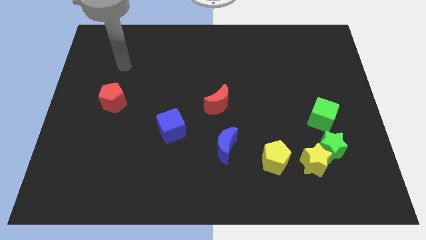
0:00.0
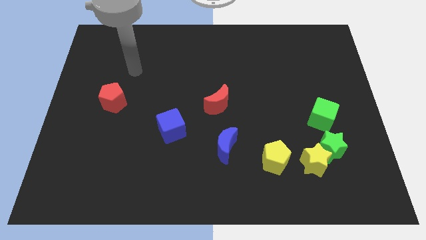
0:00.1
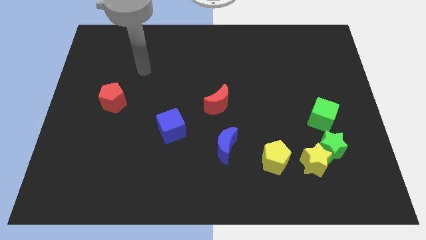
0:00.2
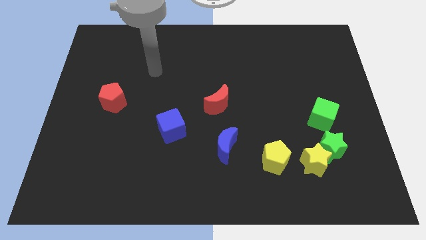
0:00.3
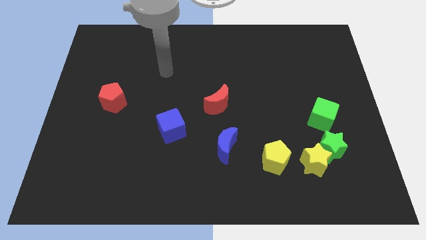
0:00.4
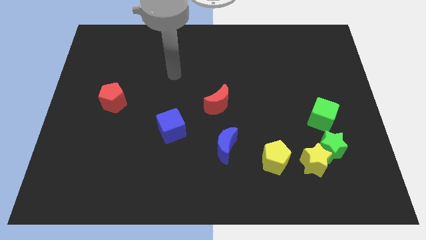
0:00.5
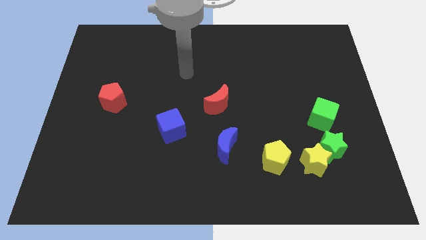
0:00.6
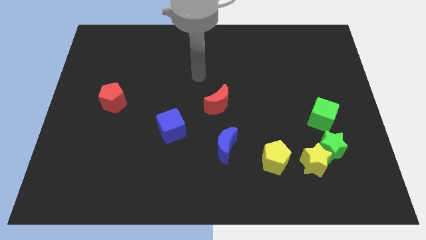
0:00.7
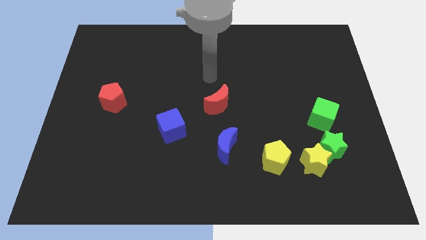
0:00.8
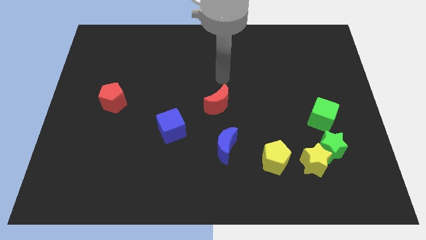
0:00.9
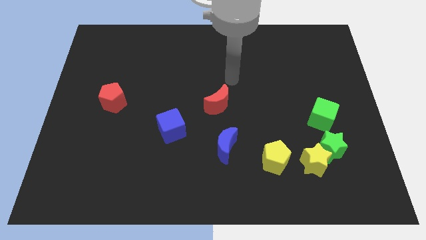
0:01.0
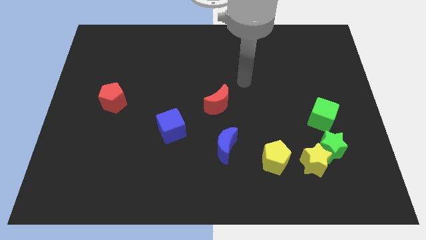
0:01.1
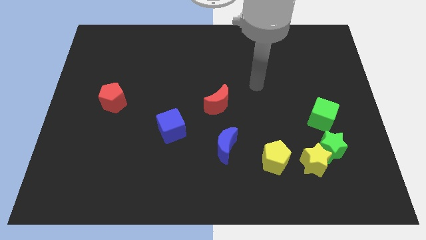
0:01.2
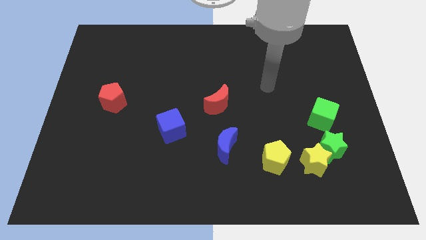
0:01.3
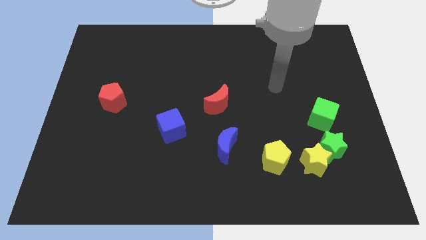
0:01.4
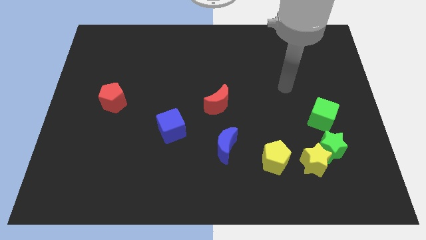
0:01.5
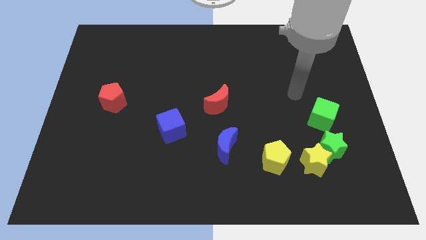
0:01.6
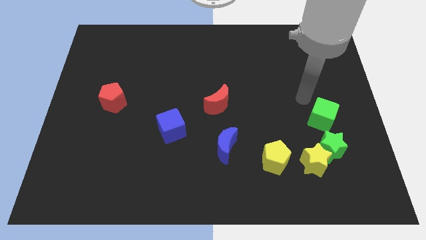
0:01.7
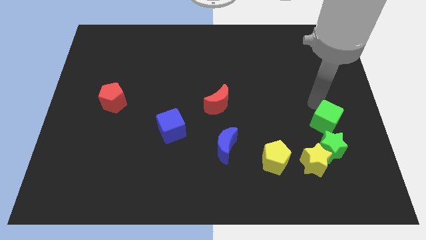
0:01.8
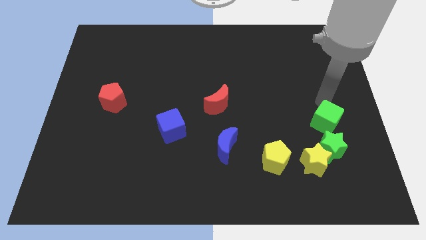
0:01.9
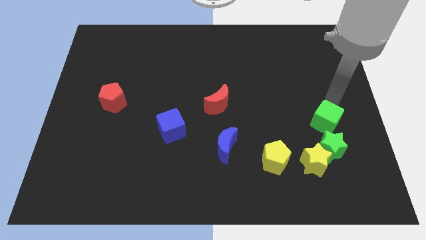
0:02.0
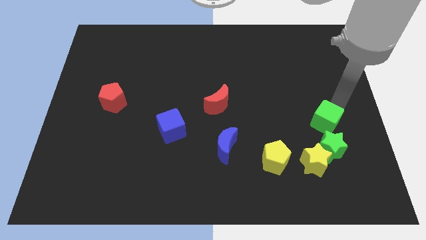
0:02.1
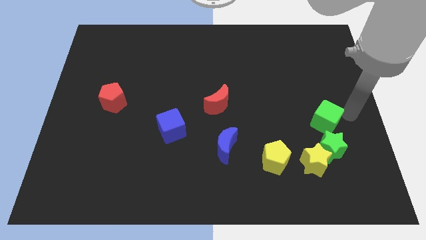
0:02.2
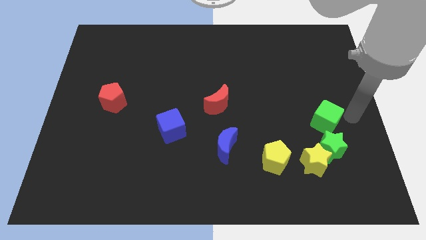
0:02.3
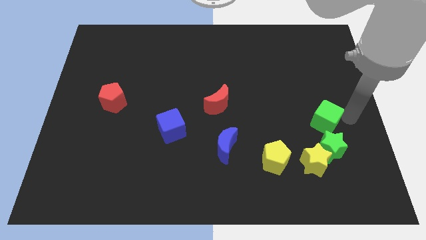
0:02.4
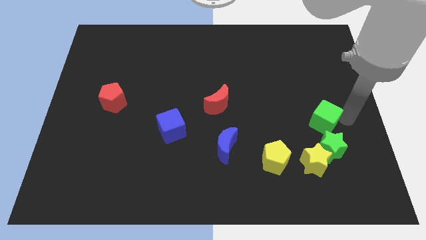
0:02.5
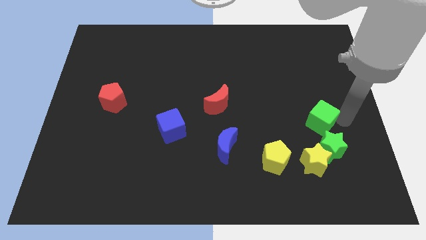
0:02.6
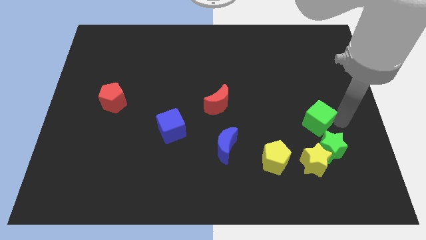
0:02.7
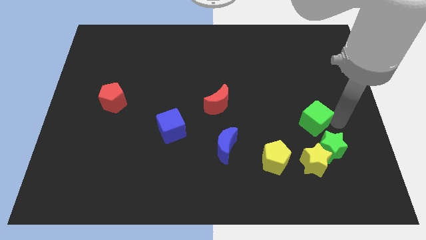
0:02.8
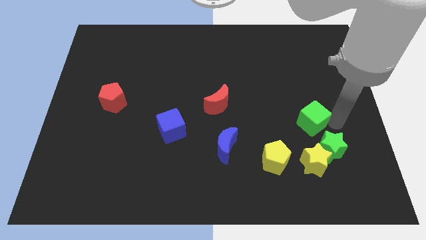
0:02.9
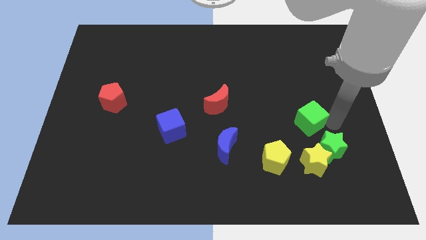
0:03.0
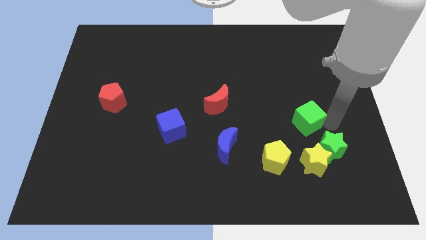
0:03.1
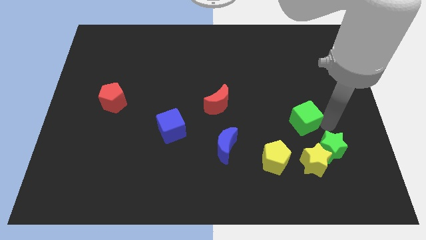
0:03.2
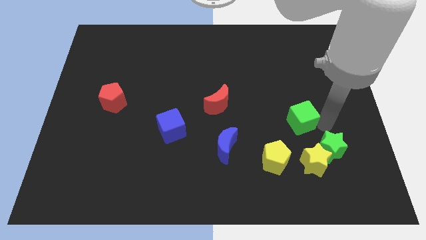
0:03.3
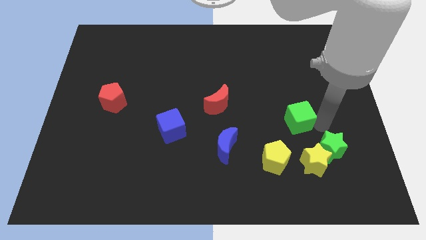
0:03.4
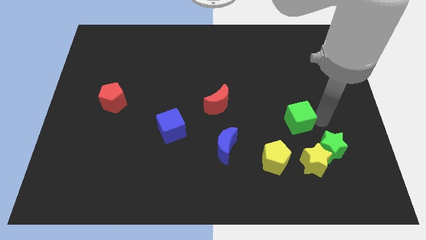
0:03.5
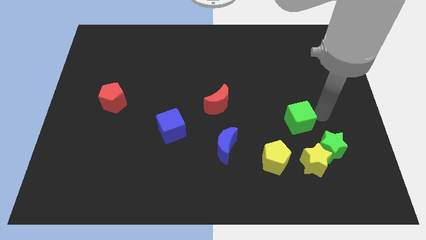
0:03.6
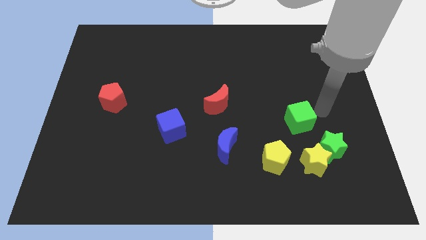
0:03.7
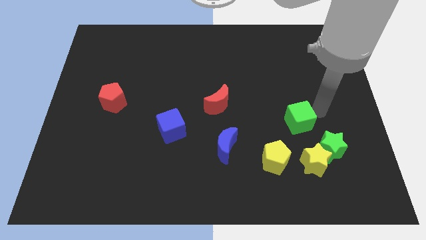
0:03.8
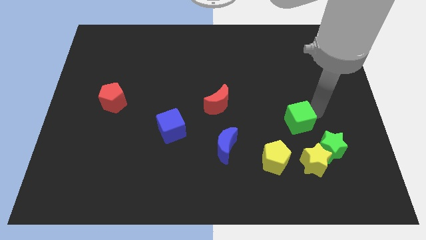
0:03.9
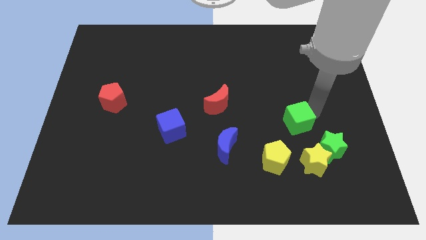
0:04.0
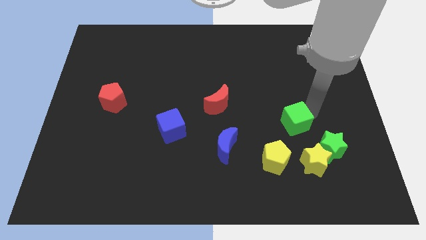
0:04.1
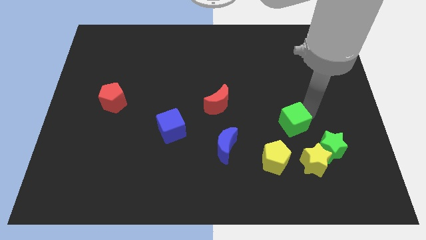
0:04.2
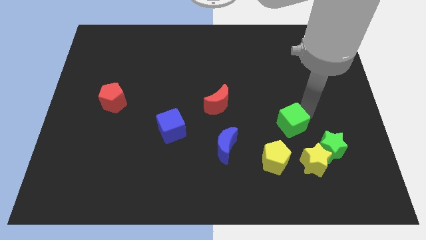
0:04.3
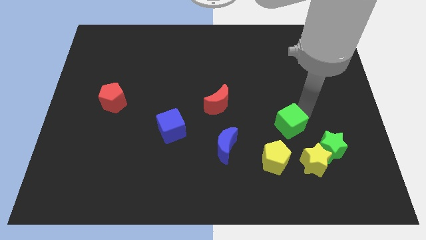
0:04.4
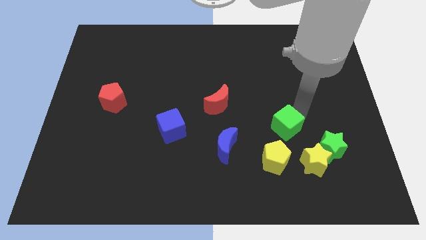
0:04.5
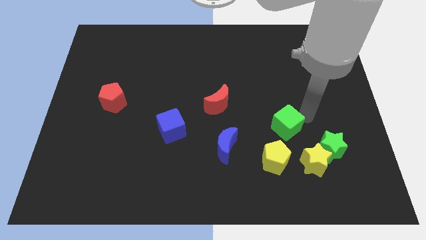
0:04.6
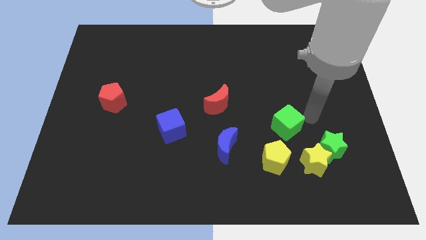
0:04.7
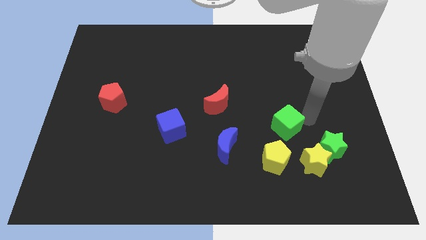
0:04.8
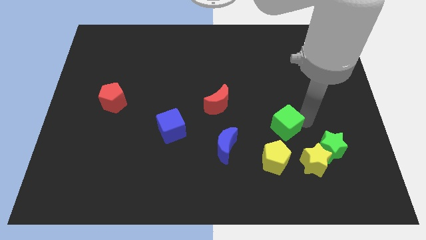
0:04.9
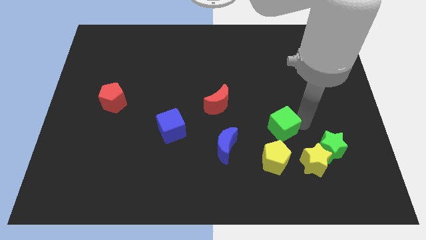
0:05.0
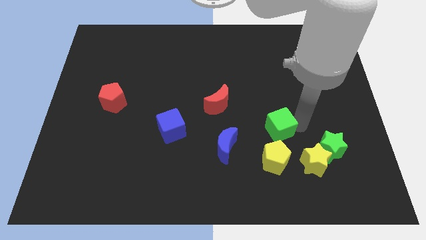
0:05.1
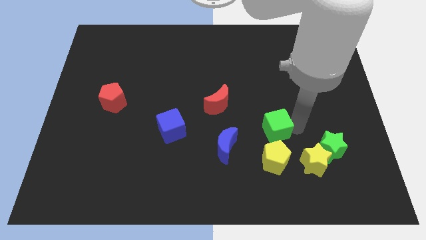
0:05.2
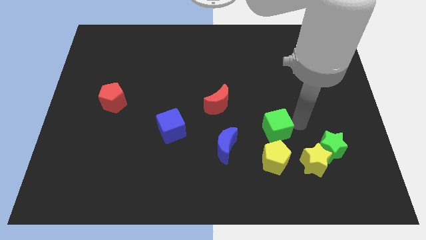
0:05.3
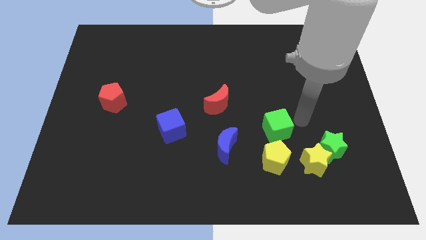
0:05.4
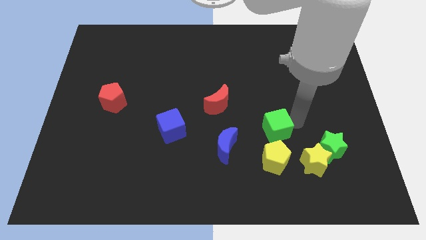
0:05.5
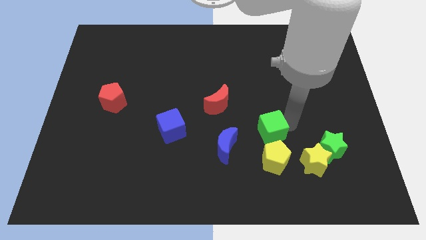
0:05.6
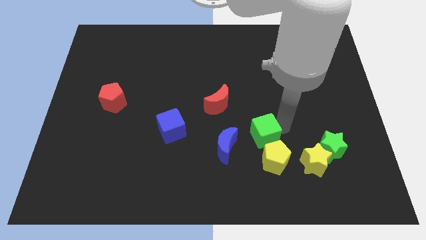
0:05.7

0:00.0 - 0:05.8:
push the green cube diagonally up and to the left of the yellow pentagon

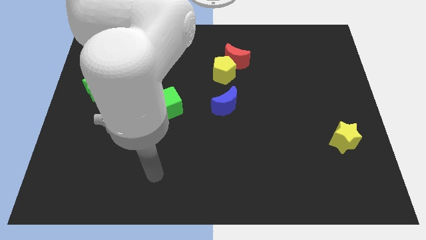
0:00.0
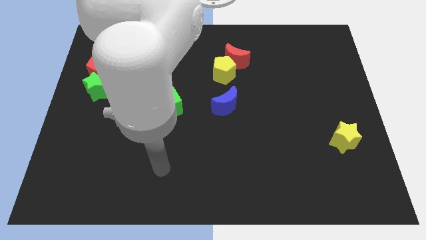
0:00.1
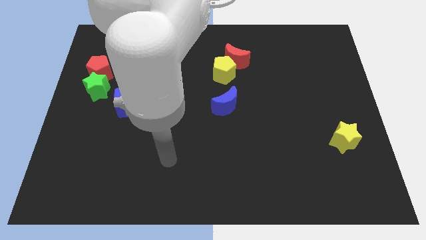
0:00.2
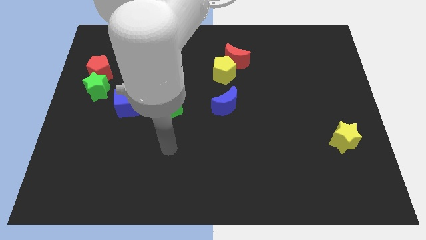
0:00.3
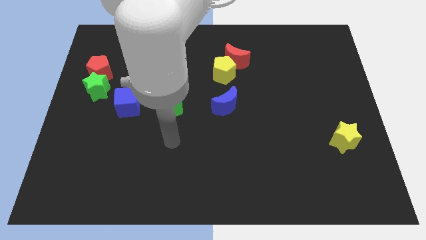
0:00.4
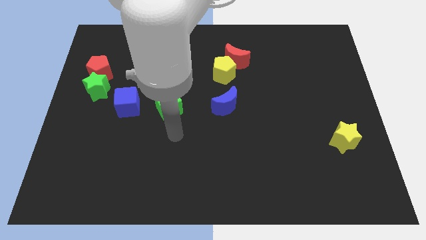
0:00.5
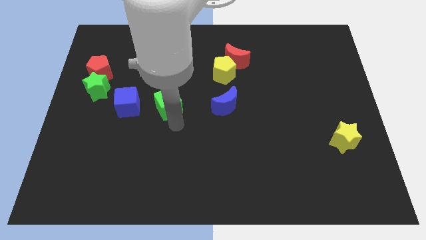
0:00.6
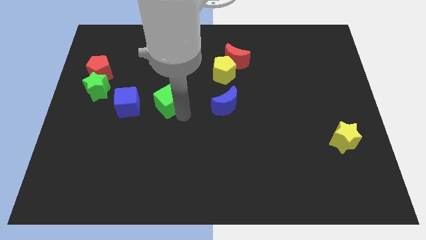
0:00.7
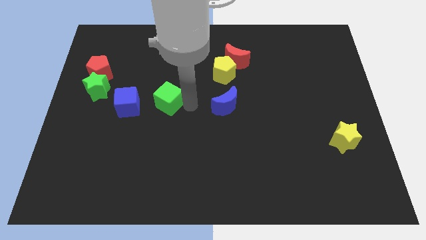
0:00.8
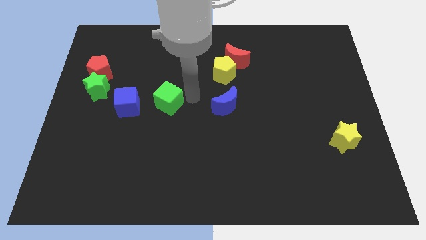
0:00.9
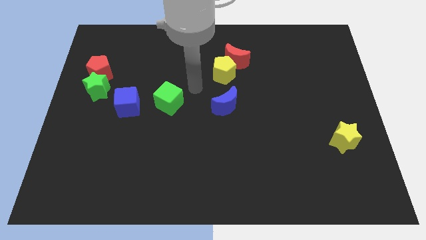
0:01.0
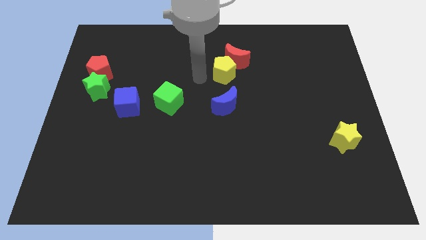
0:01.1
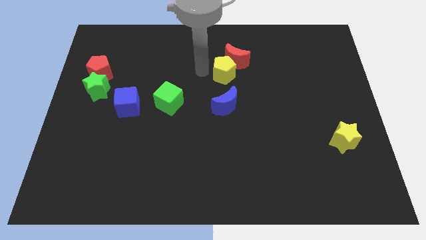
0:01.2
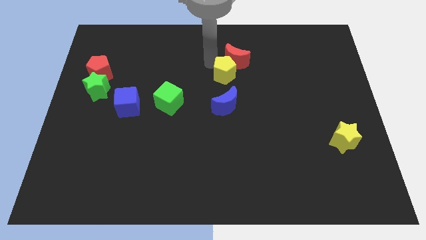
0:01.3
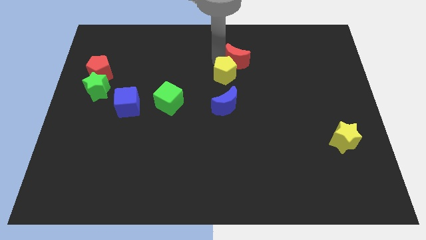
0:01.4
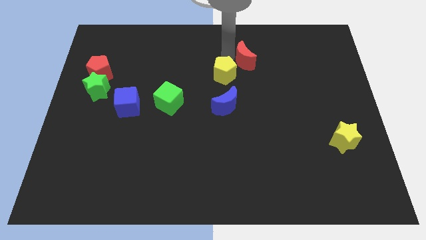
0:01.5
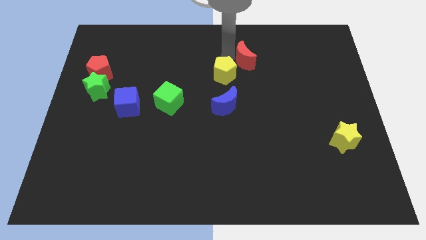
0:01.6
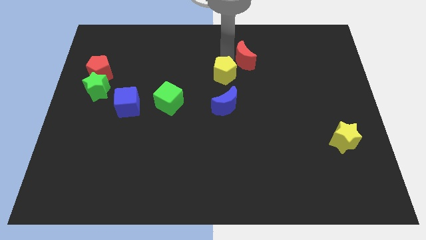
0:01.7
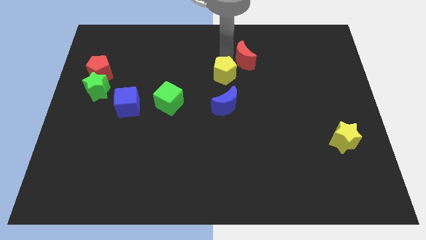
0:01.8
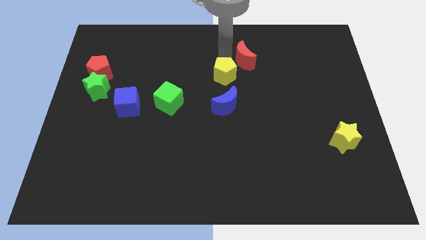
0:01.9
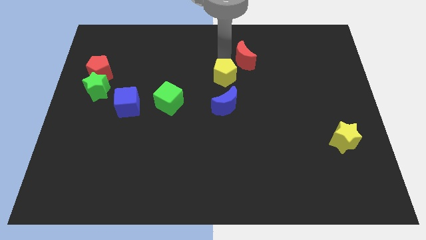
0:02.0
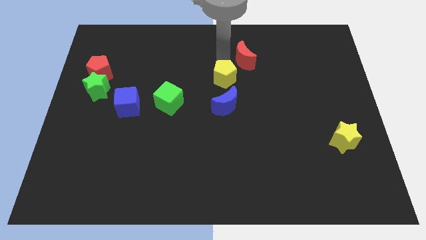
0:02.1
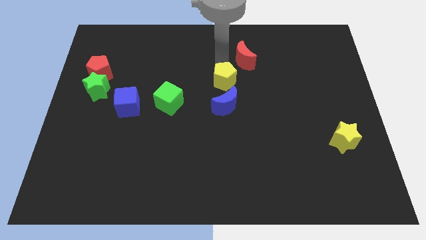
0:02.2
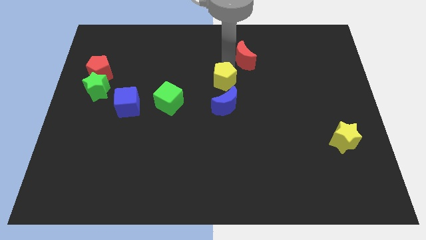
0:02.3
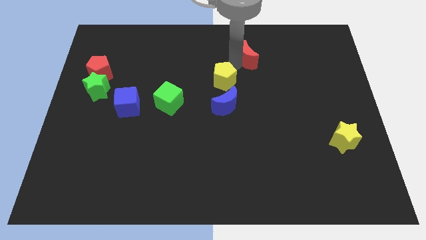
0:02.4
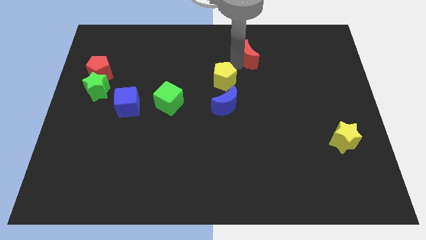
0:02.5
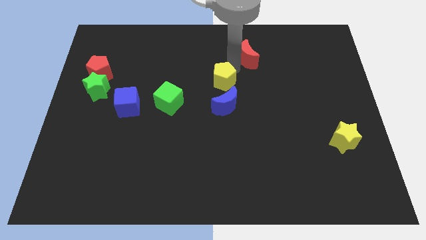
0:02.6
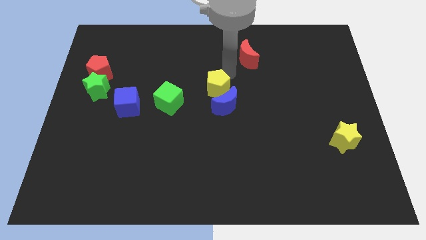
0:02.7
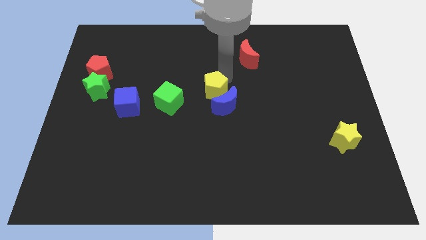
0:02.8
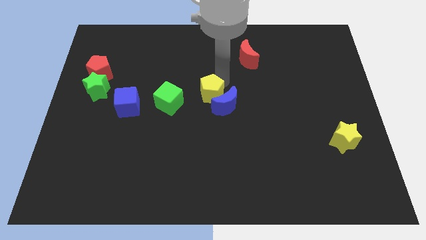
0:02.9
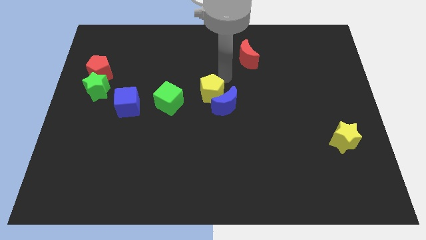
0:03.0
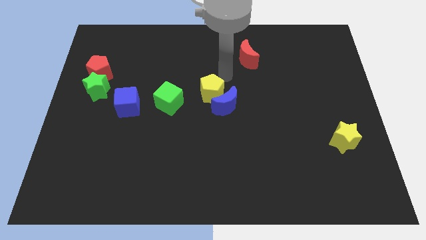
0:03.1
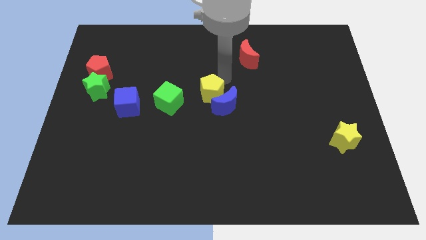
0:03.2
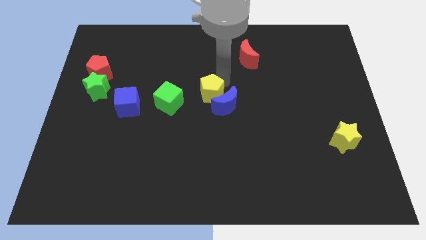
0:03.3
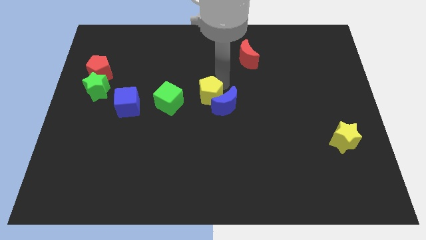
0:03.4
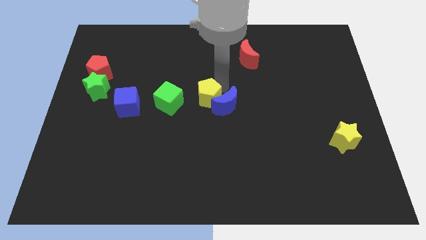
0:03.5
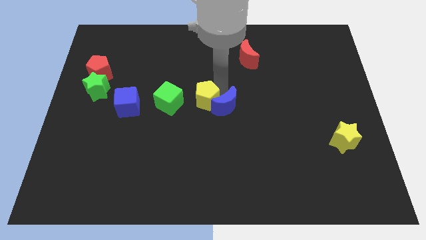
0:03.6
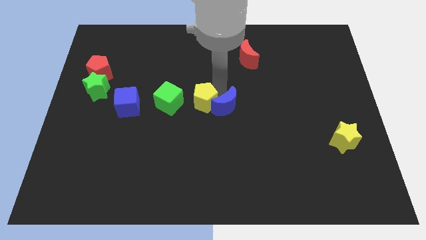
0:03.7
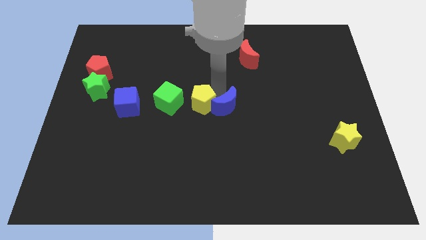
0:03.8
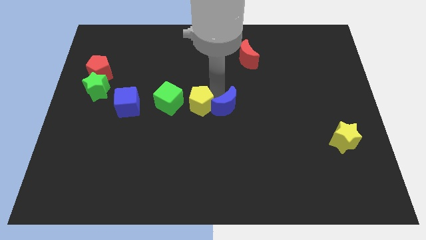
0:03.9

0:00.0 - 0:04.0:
slide the yellow pentagon diagonally down and to the right of the green cube
